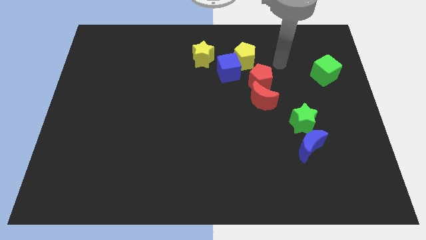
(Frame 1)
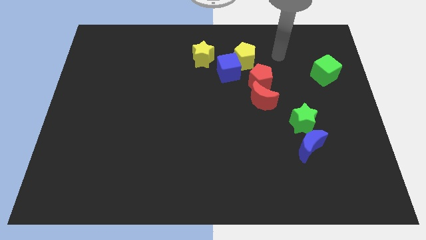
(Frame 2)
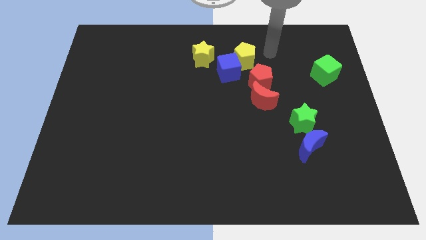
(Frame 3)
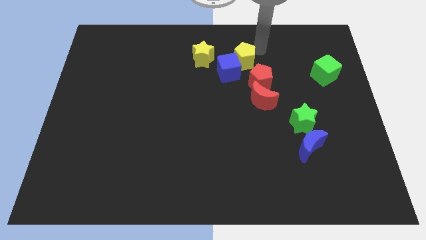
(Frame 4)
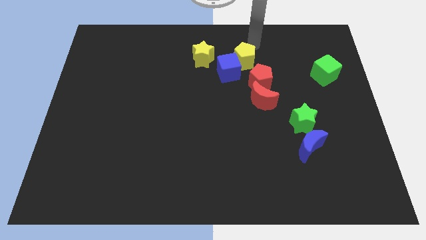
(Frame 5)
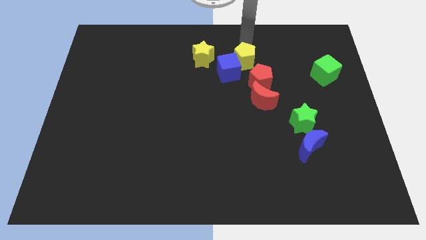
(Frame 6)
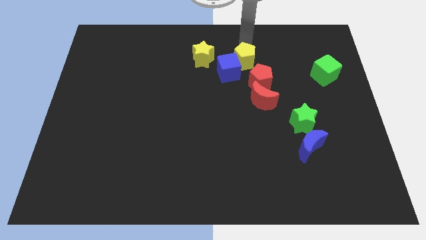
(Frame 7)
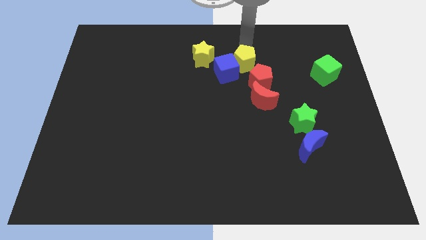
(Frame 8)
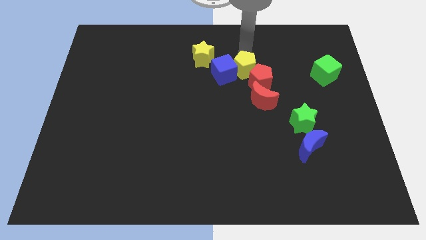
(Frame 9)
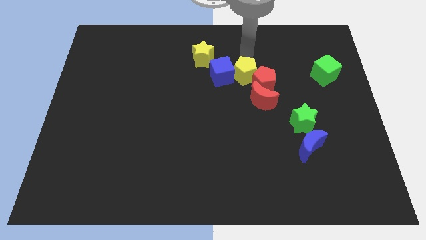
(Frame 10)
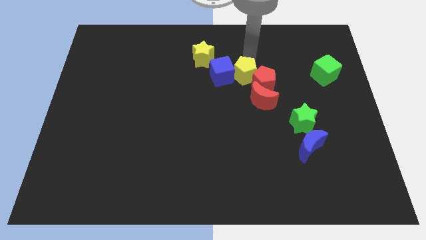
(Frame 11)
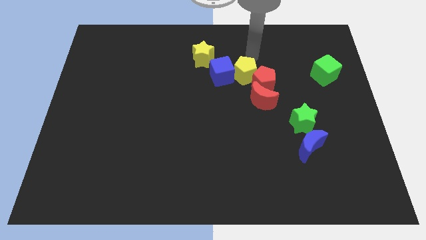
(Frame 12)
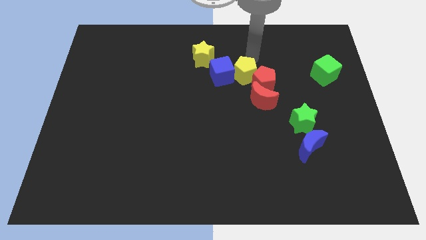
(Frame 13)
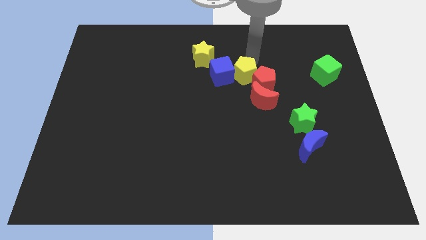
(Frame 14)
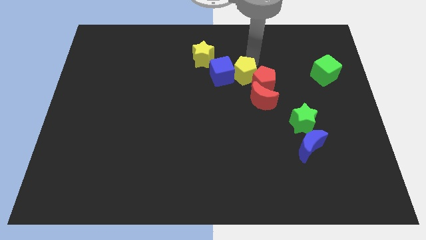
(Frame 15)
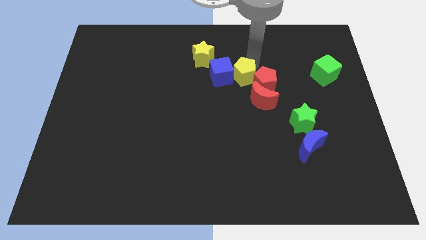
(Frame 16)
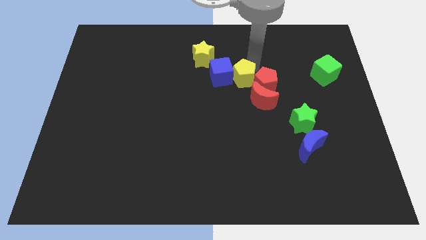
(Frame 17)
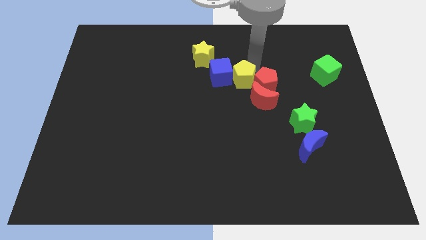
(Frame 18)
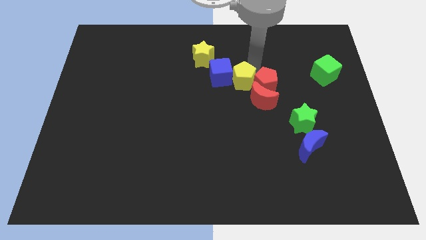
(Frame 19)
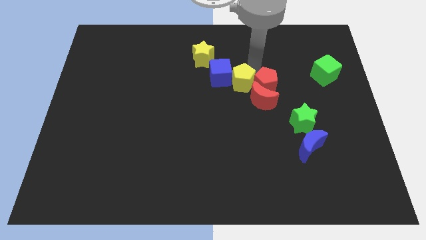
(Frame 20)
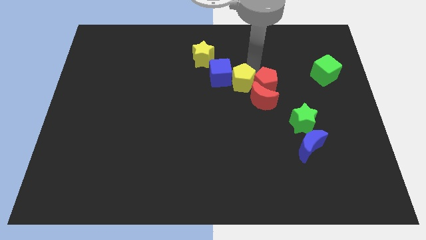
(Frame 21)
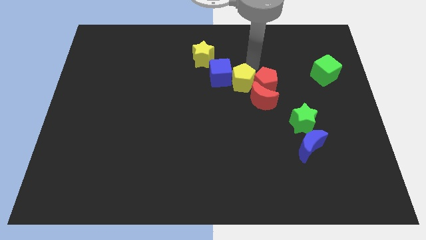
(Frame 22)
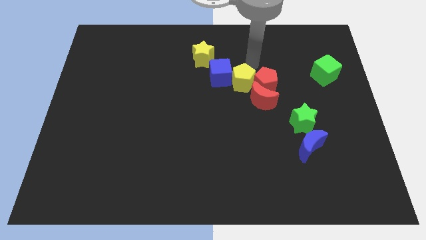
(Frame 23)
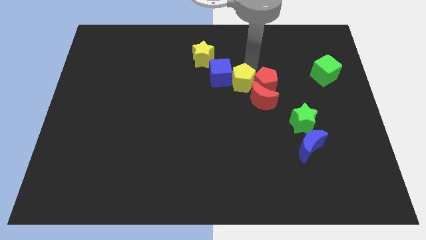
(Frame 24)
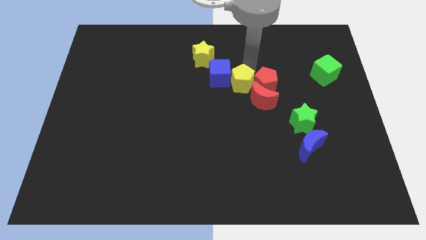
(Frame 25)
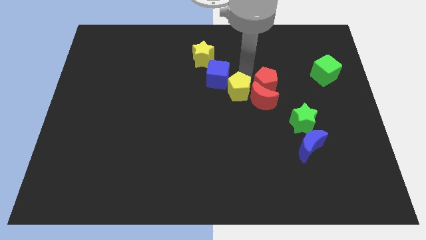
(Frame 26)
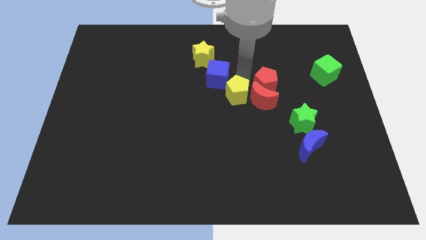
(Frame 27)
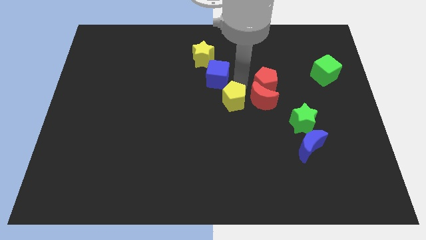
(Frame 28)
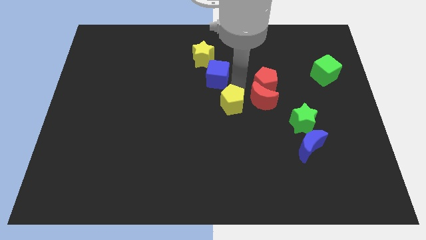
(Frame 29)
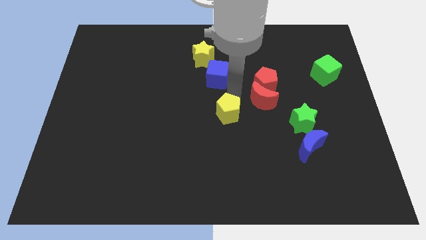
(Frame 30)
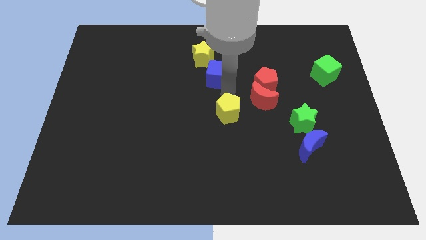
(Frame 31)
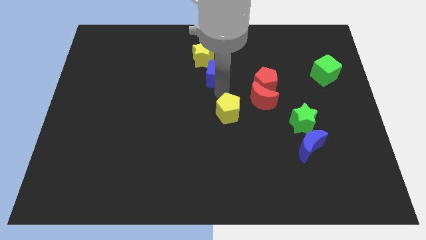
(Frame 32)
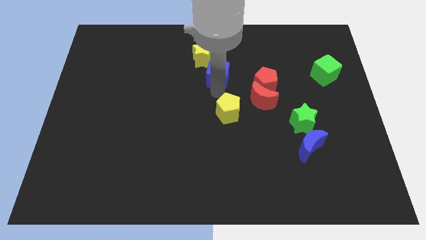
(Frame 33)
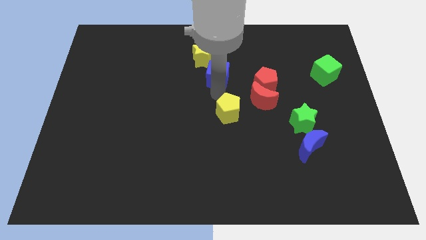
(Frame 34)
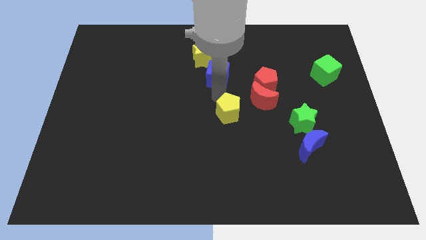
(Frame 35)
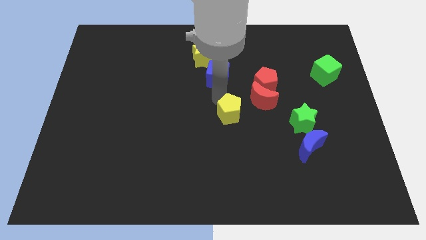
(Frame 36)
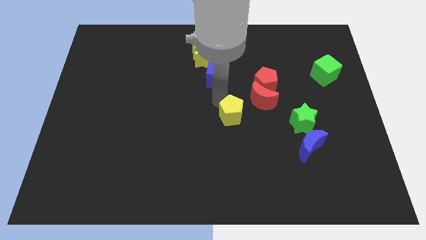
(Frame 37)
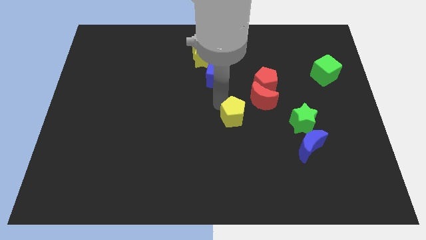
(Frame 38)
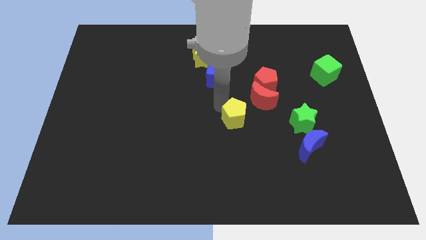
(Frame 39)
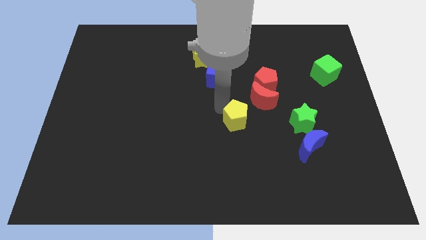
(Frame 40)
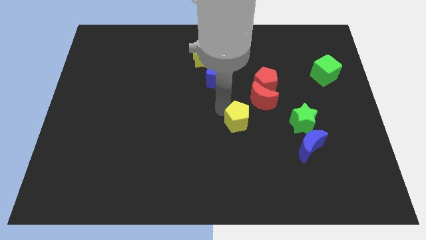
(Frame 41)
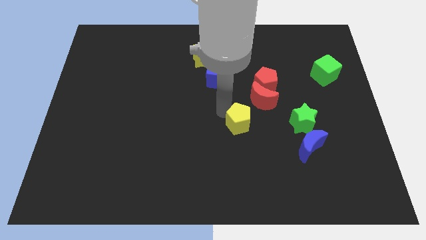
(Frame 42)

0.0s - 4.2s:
push the yellow pentagon down

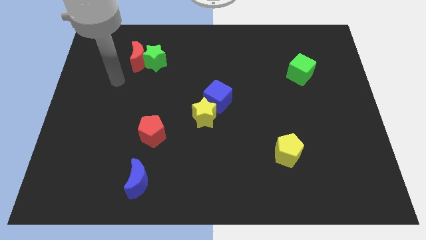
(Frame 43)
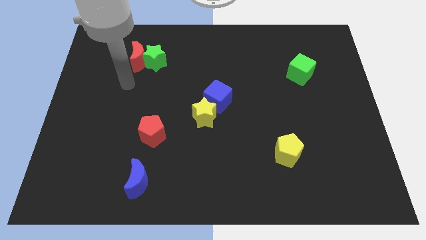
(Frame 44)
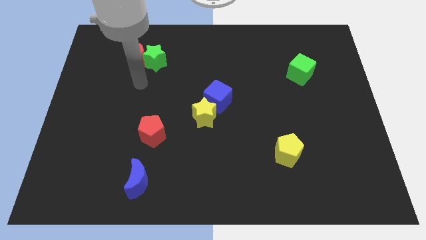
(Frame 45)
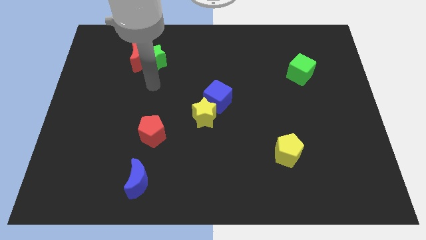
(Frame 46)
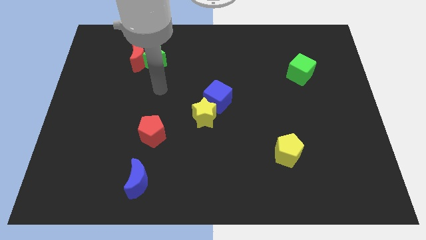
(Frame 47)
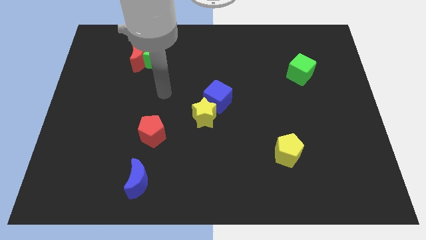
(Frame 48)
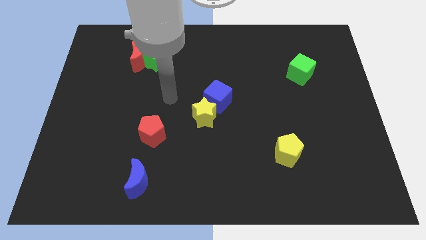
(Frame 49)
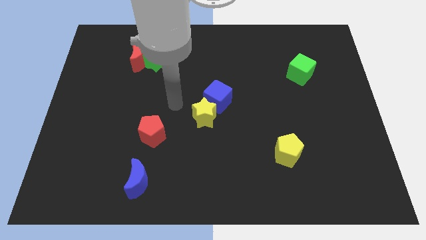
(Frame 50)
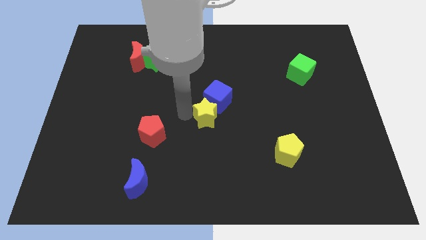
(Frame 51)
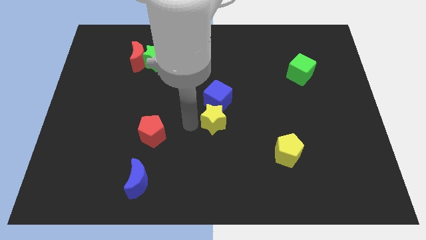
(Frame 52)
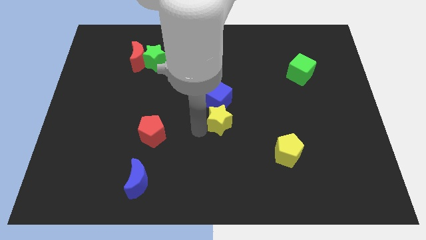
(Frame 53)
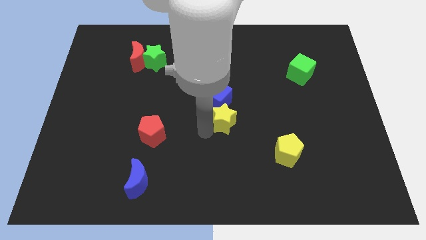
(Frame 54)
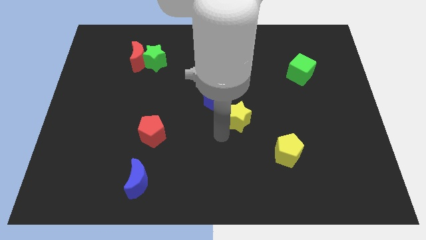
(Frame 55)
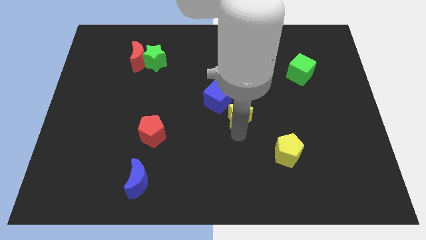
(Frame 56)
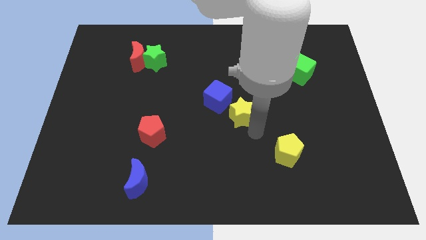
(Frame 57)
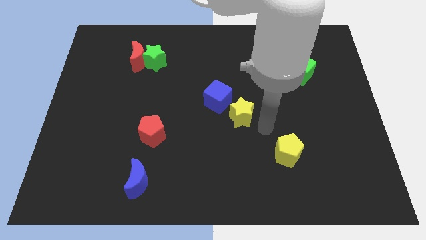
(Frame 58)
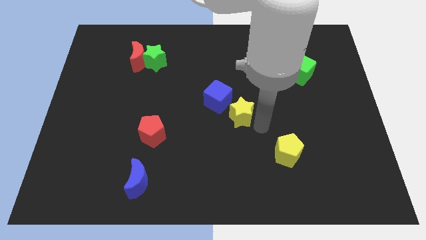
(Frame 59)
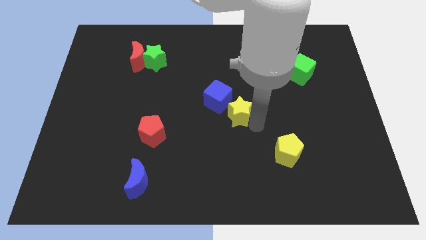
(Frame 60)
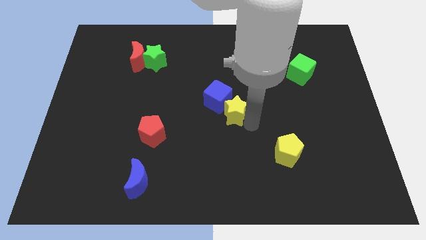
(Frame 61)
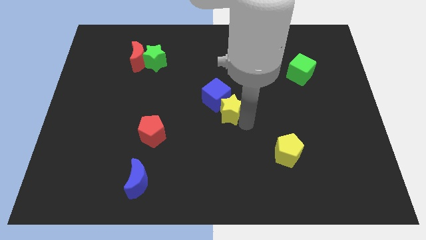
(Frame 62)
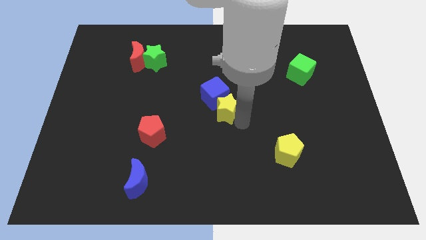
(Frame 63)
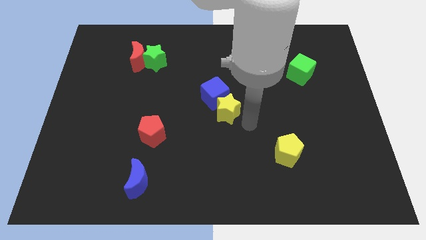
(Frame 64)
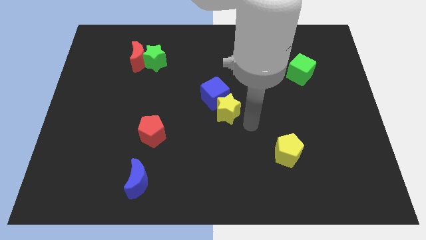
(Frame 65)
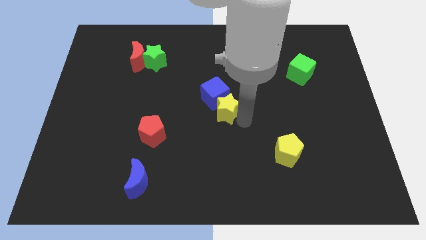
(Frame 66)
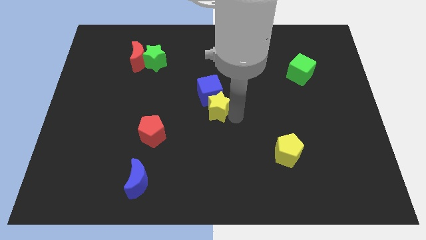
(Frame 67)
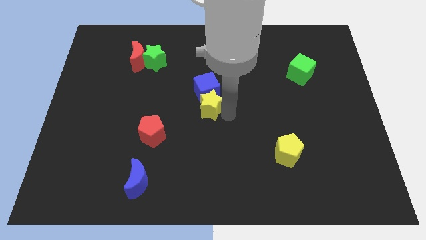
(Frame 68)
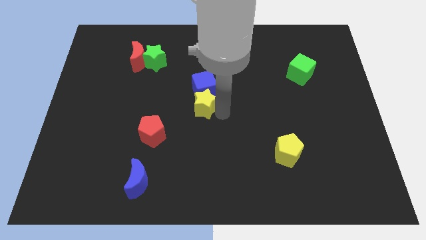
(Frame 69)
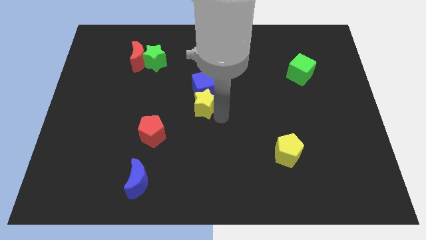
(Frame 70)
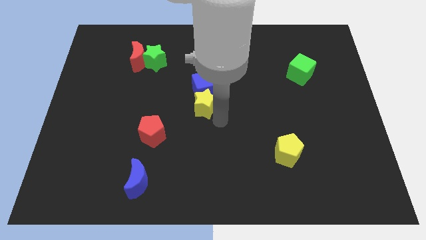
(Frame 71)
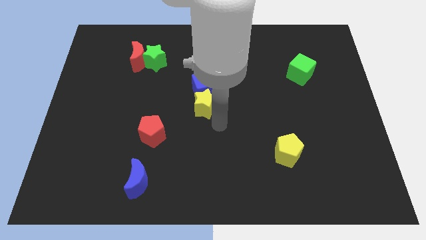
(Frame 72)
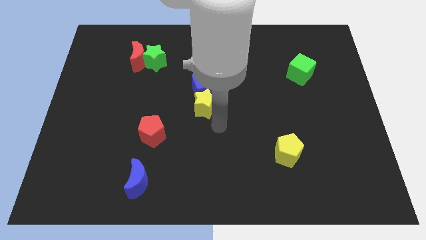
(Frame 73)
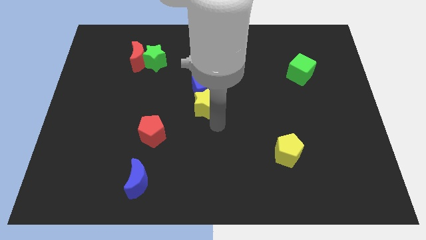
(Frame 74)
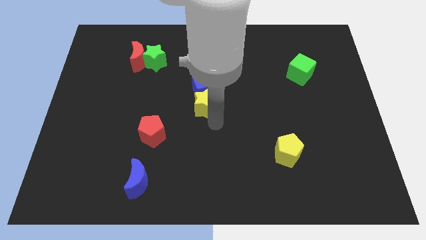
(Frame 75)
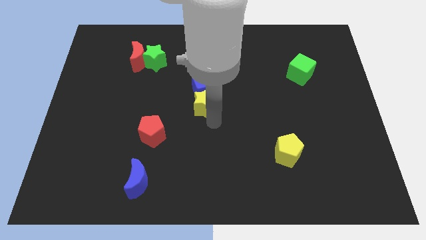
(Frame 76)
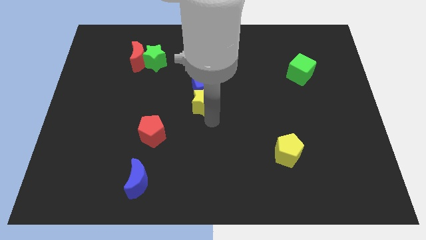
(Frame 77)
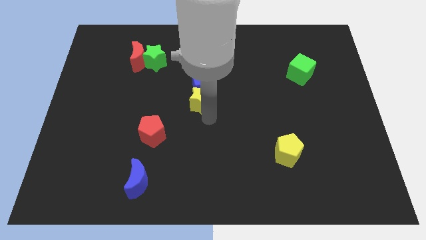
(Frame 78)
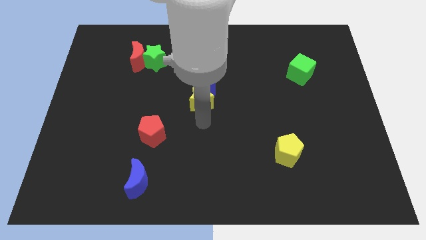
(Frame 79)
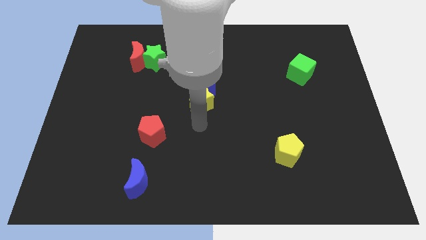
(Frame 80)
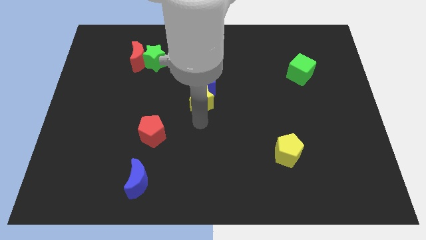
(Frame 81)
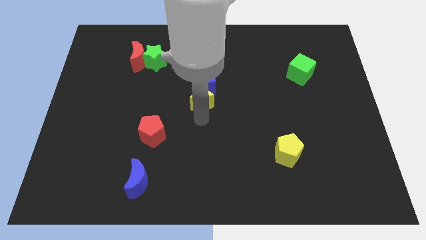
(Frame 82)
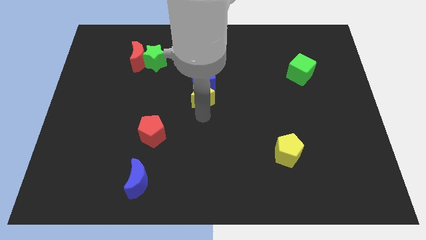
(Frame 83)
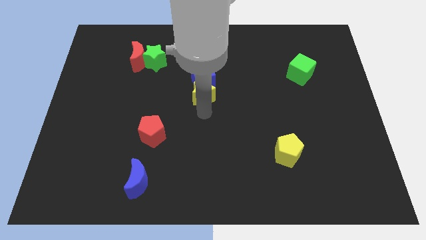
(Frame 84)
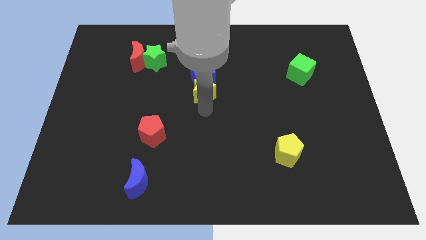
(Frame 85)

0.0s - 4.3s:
move the yellow star up a little bit
